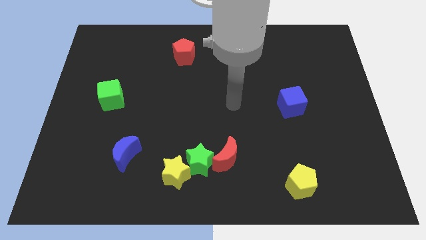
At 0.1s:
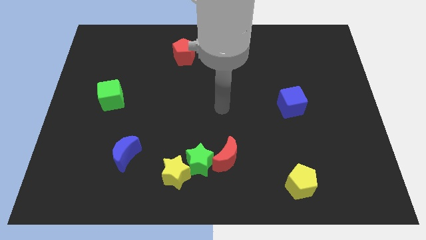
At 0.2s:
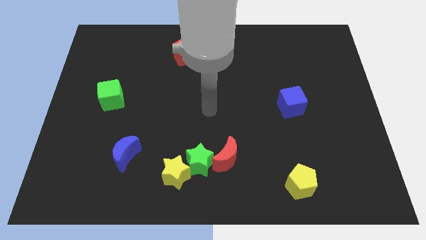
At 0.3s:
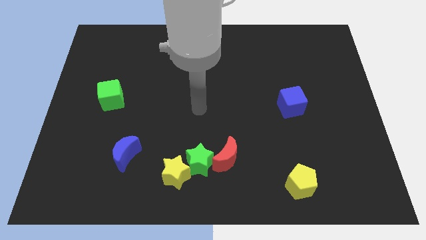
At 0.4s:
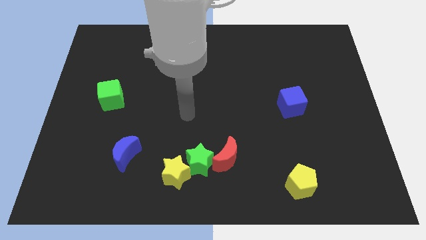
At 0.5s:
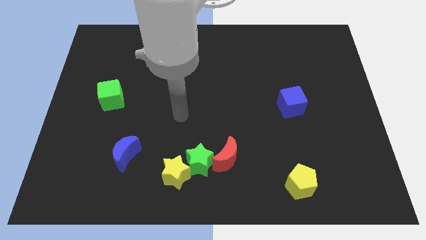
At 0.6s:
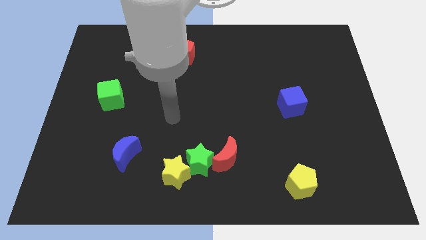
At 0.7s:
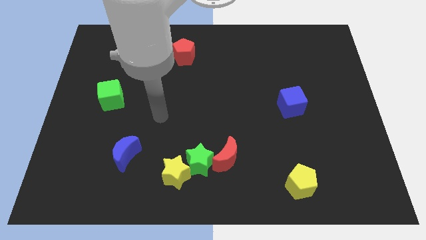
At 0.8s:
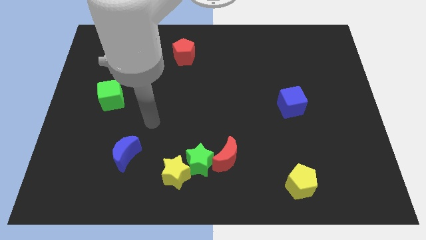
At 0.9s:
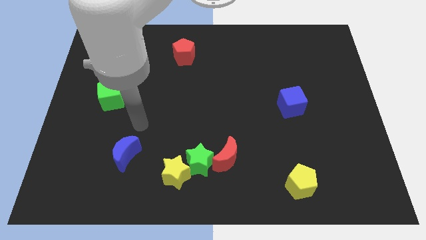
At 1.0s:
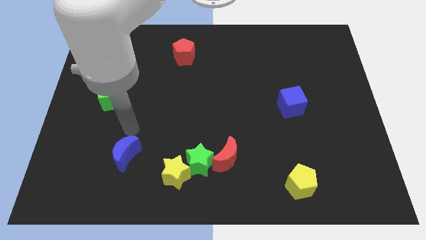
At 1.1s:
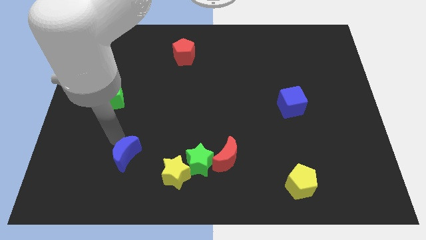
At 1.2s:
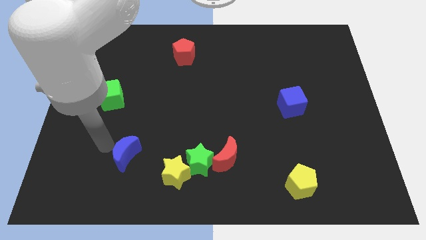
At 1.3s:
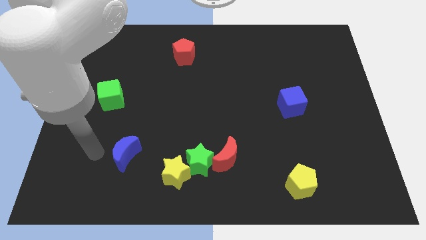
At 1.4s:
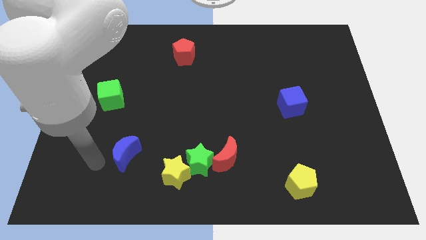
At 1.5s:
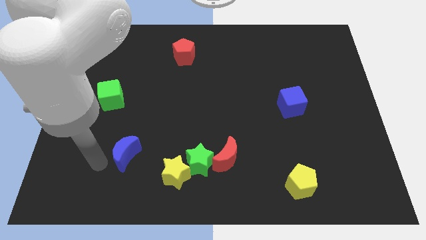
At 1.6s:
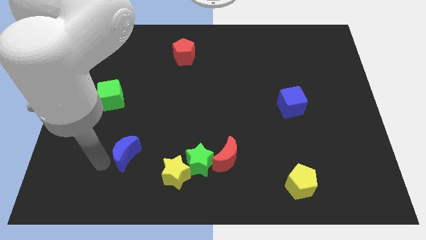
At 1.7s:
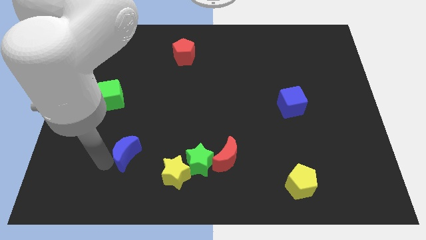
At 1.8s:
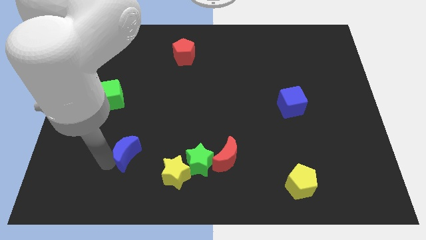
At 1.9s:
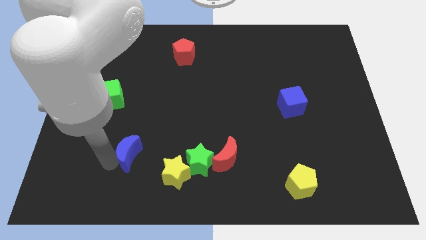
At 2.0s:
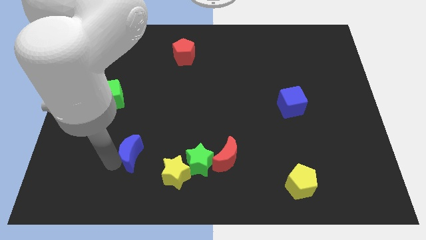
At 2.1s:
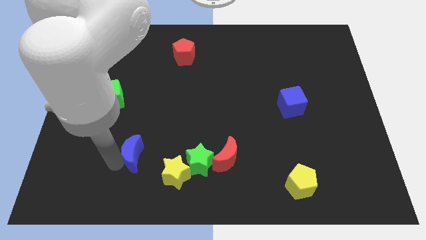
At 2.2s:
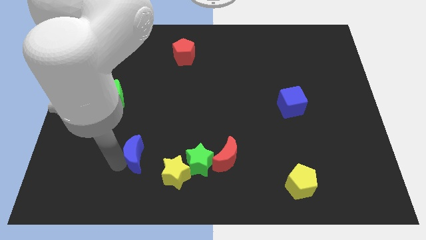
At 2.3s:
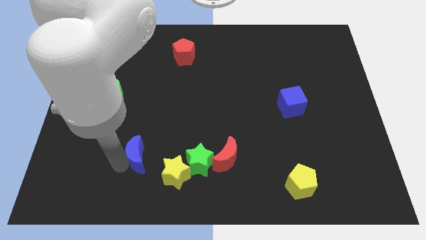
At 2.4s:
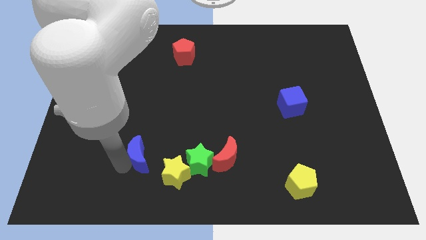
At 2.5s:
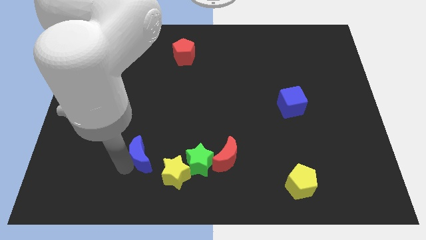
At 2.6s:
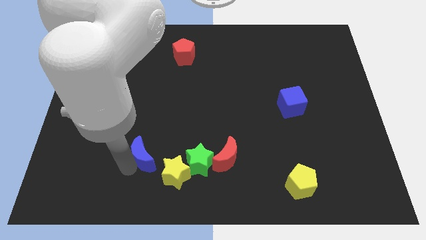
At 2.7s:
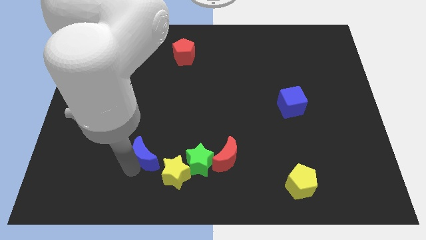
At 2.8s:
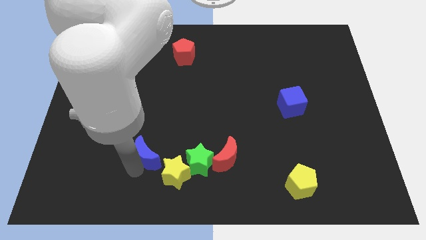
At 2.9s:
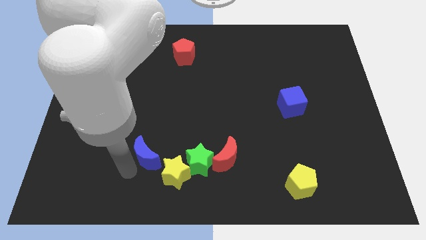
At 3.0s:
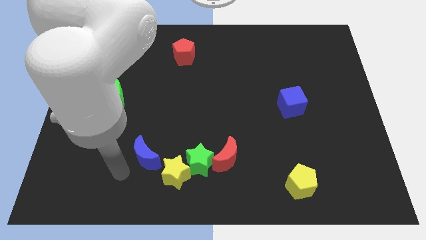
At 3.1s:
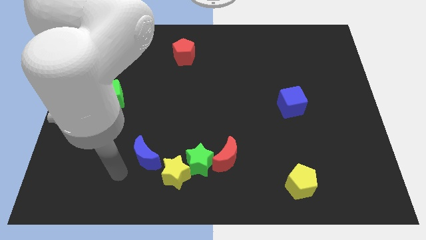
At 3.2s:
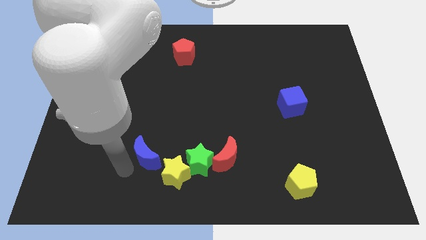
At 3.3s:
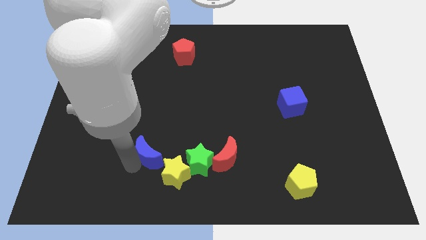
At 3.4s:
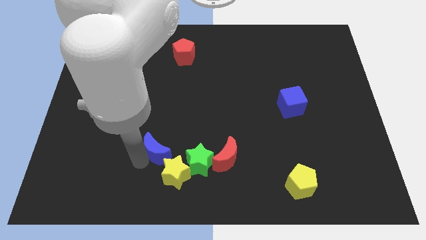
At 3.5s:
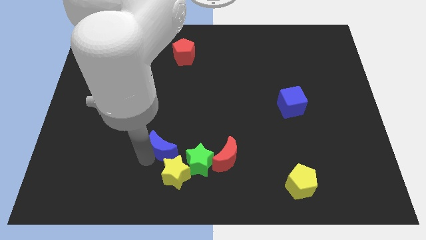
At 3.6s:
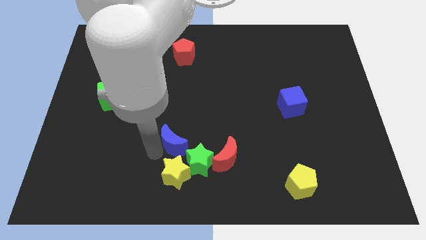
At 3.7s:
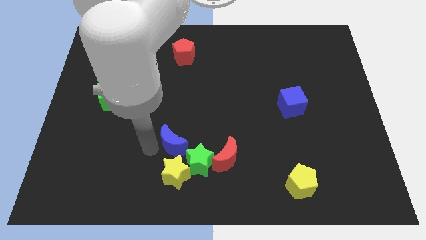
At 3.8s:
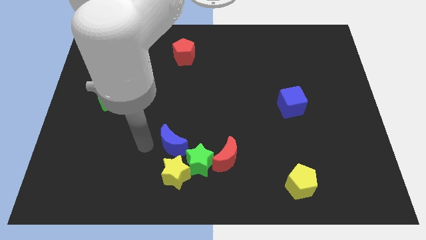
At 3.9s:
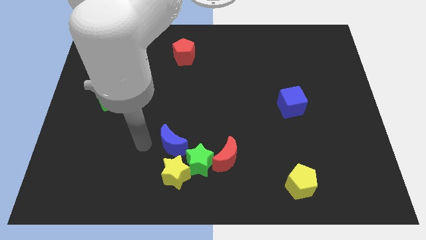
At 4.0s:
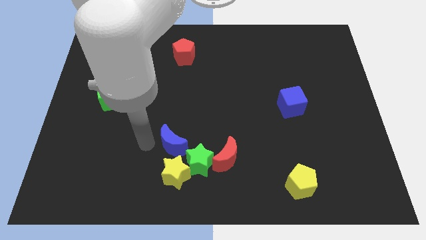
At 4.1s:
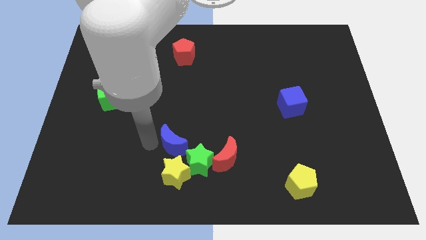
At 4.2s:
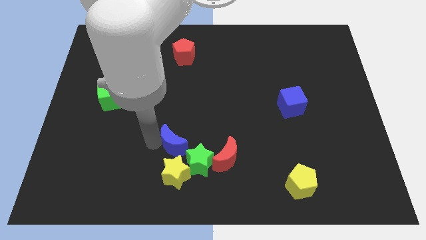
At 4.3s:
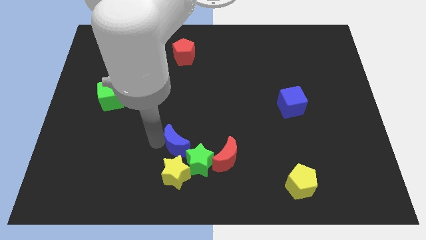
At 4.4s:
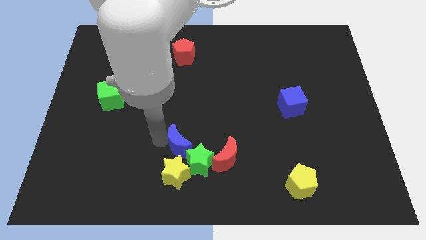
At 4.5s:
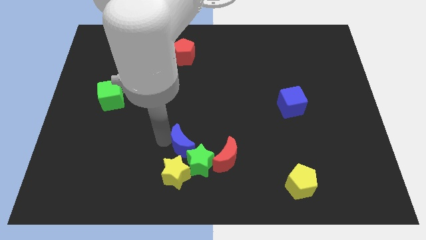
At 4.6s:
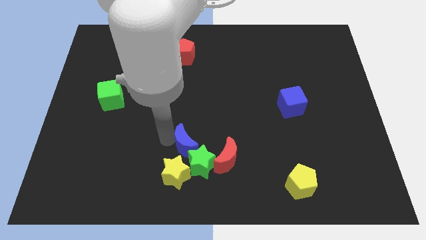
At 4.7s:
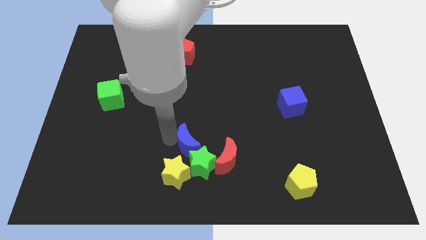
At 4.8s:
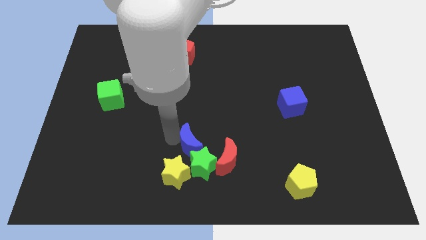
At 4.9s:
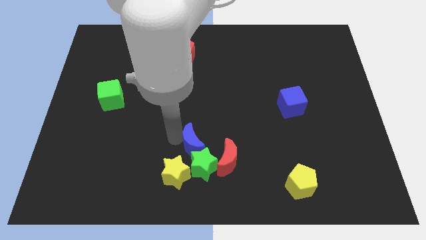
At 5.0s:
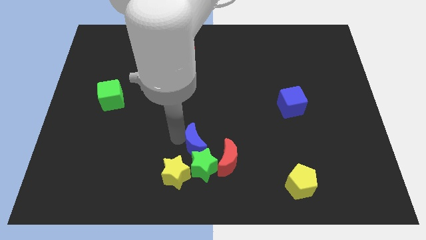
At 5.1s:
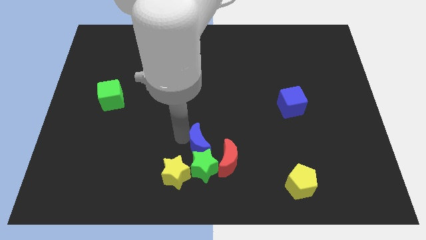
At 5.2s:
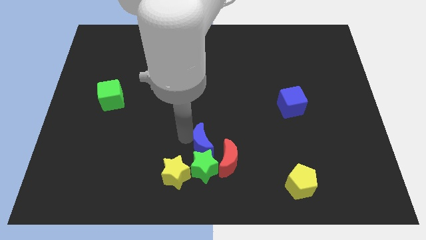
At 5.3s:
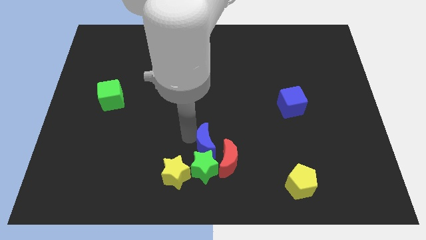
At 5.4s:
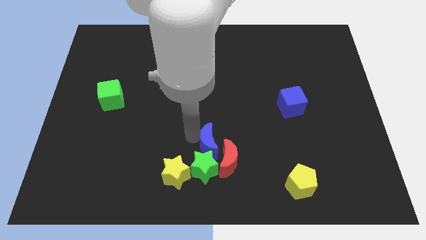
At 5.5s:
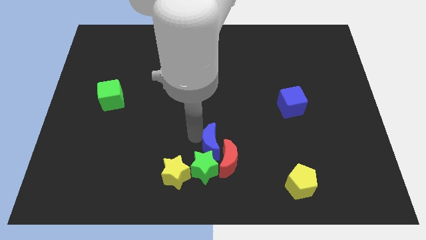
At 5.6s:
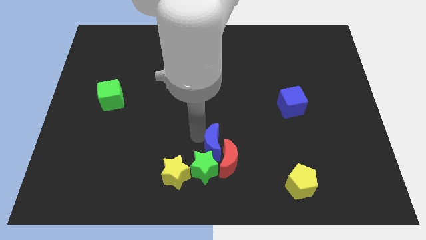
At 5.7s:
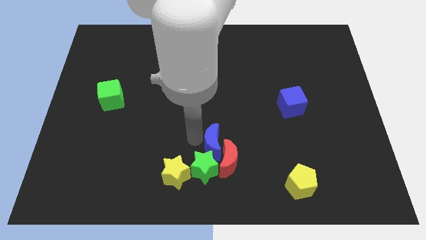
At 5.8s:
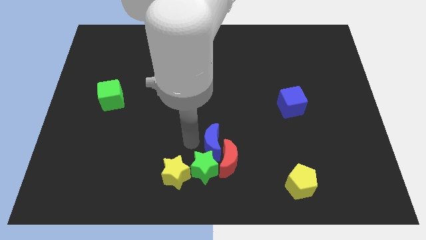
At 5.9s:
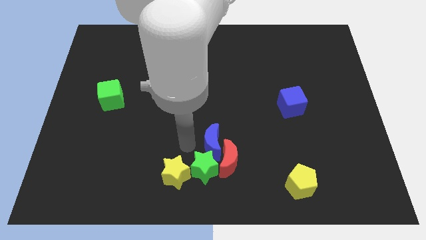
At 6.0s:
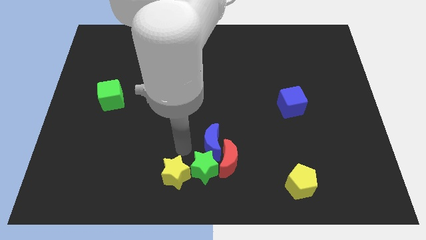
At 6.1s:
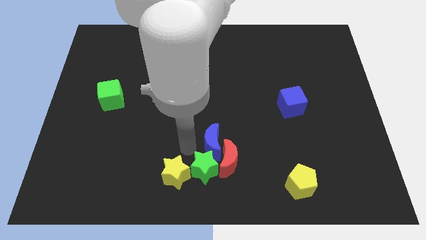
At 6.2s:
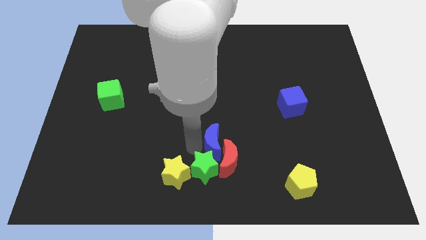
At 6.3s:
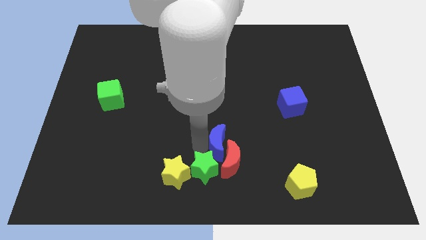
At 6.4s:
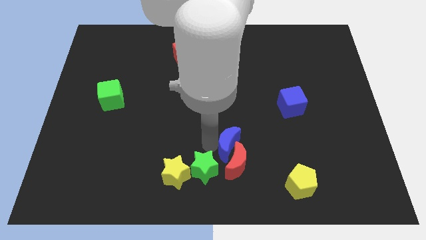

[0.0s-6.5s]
push the blue moon to the right

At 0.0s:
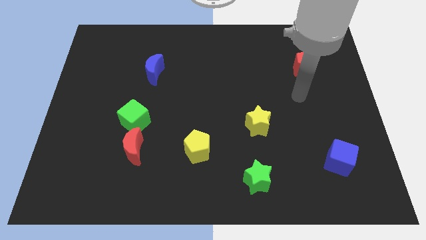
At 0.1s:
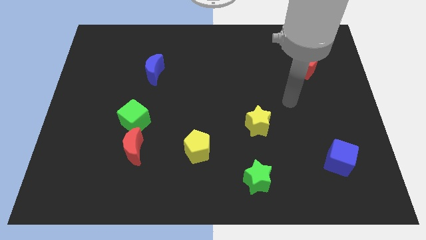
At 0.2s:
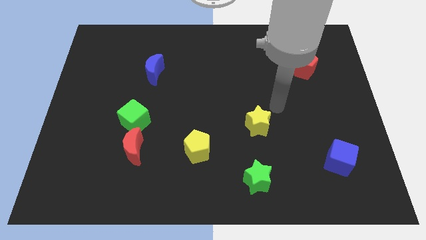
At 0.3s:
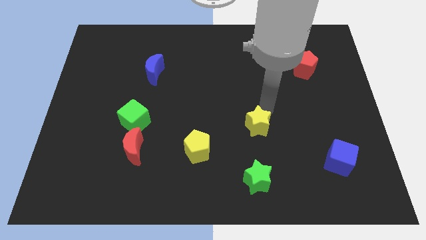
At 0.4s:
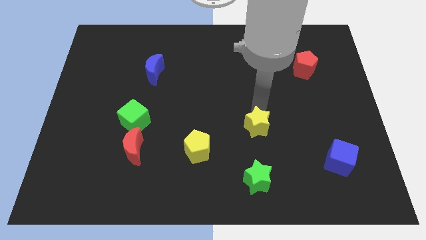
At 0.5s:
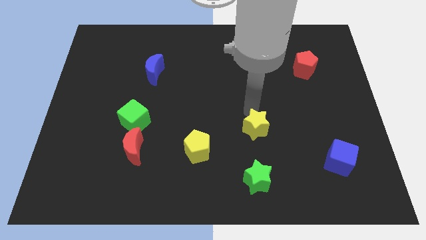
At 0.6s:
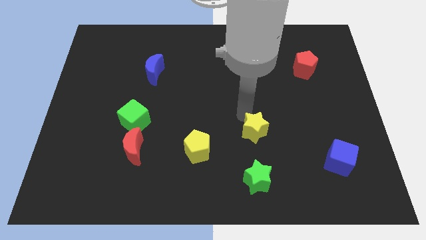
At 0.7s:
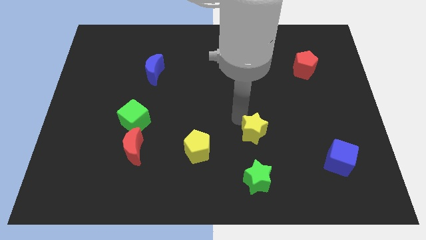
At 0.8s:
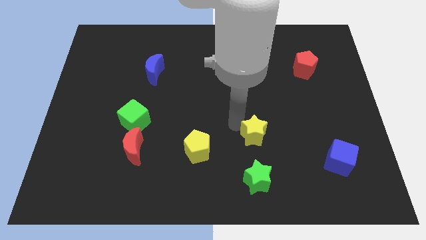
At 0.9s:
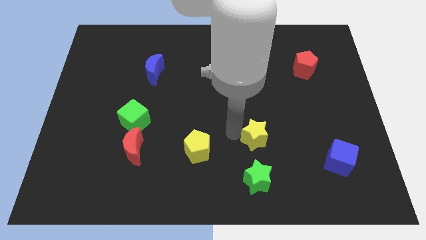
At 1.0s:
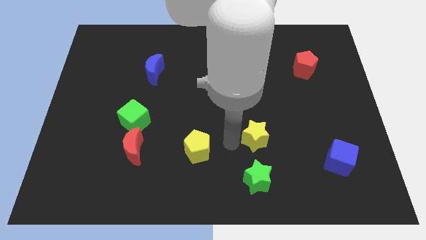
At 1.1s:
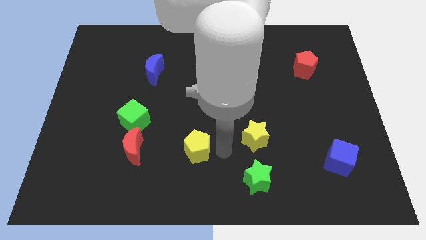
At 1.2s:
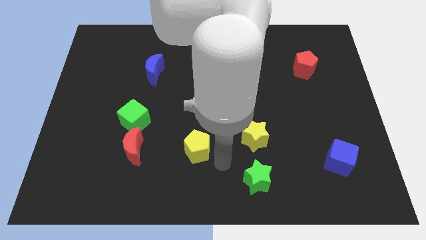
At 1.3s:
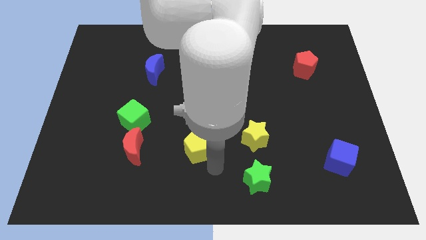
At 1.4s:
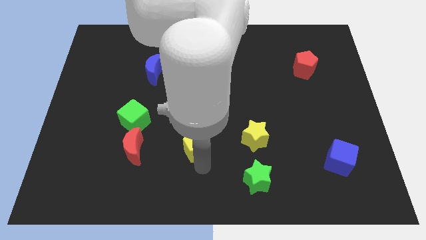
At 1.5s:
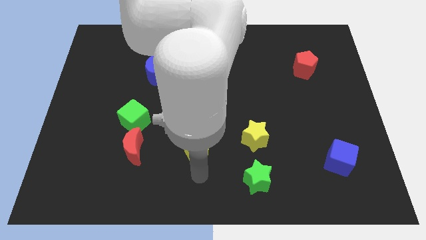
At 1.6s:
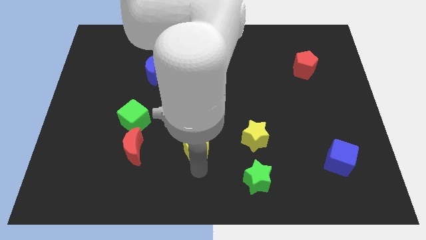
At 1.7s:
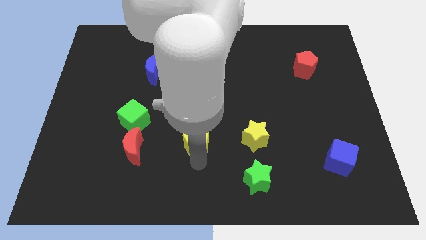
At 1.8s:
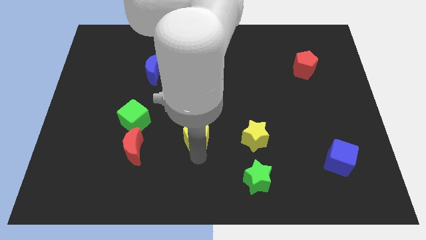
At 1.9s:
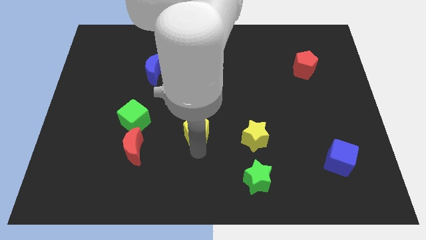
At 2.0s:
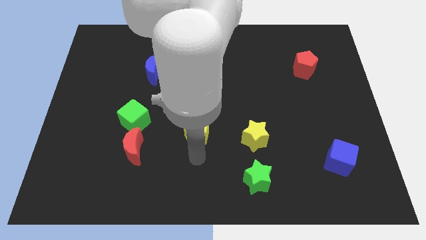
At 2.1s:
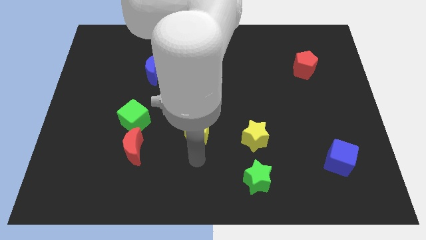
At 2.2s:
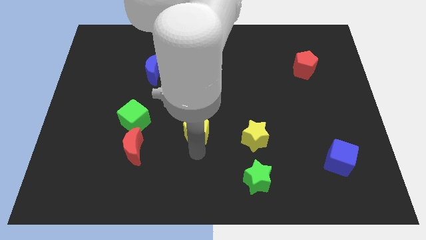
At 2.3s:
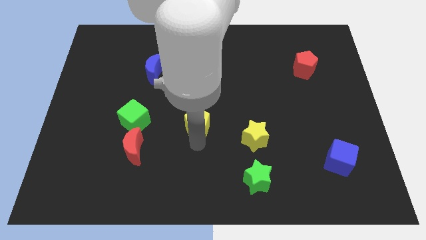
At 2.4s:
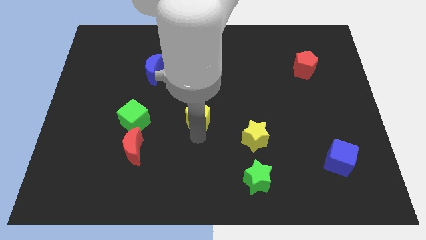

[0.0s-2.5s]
move the yellow pentagon upwards a bit
